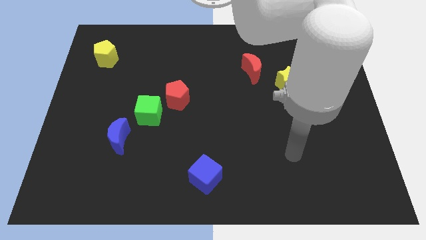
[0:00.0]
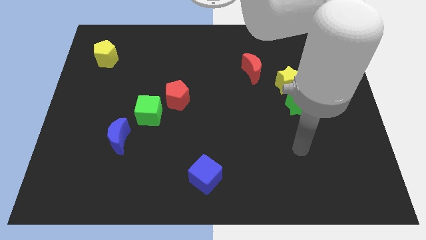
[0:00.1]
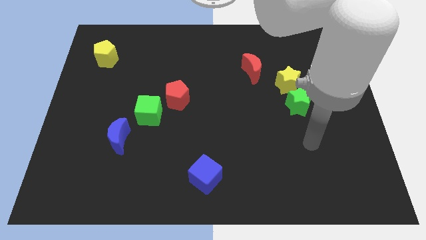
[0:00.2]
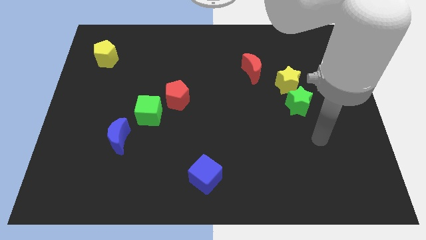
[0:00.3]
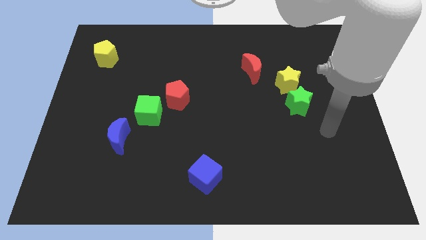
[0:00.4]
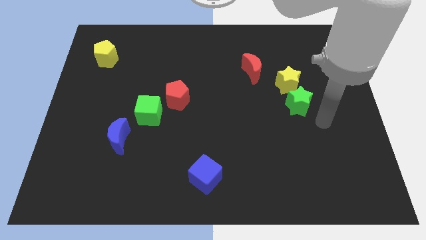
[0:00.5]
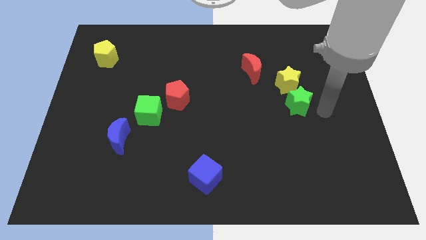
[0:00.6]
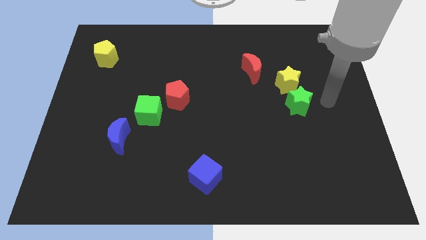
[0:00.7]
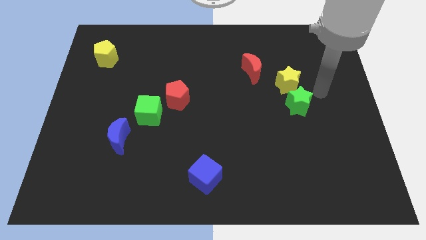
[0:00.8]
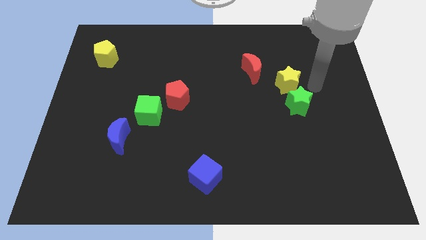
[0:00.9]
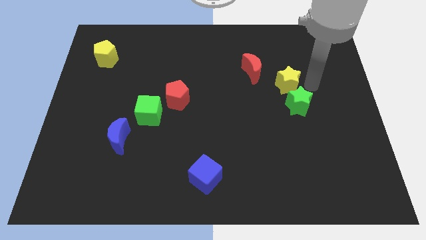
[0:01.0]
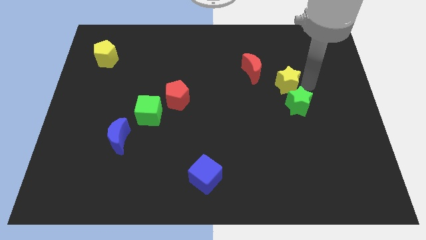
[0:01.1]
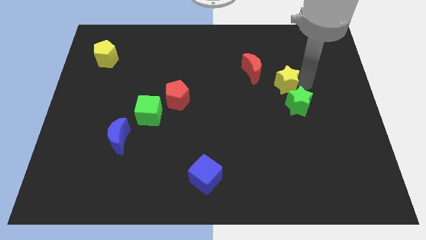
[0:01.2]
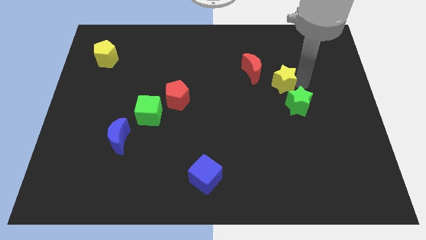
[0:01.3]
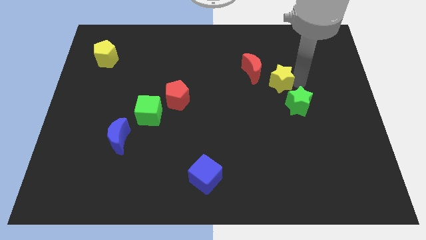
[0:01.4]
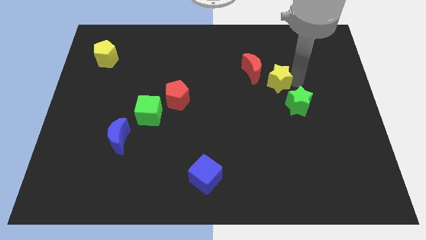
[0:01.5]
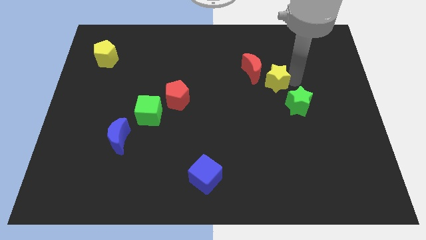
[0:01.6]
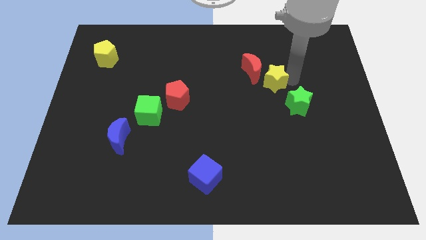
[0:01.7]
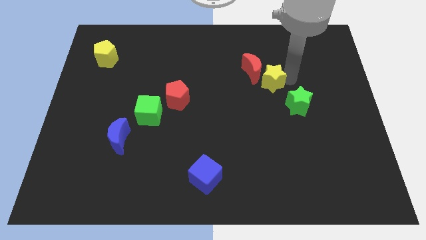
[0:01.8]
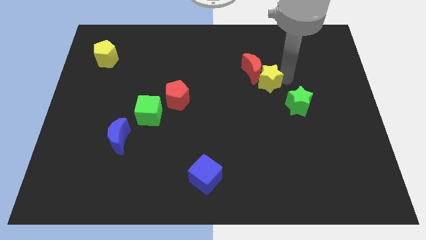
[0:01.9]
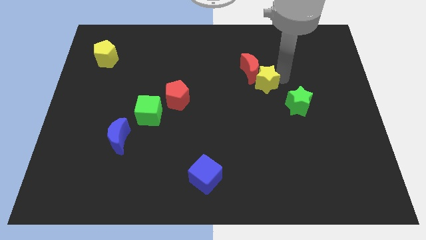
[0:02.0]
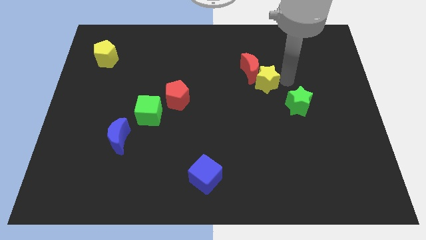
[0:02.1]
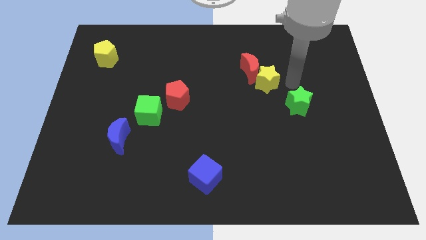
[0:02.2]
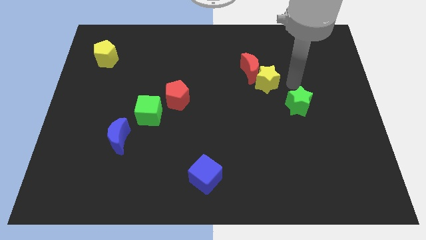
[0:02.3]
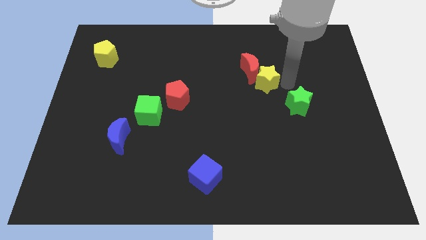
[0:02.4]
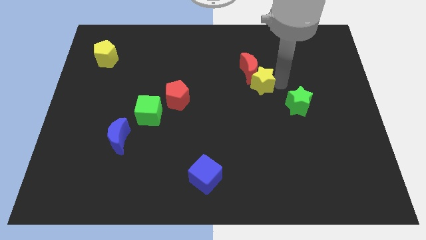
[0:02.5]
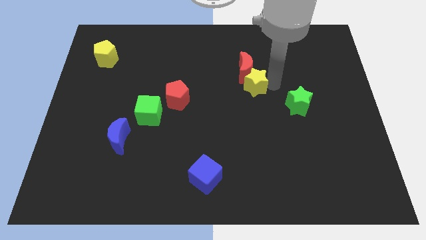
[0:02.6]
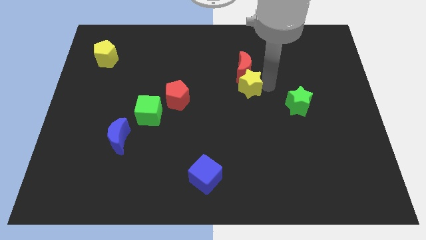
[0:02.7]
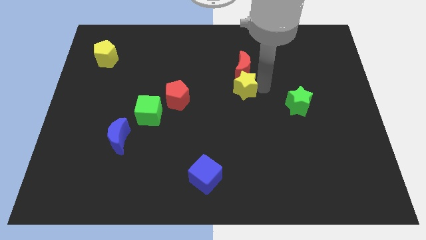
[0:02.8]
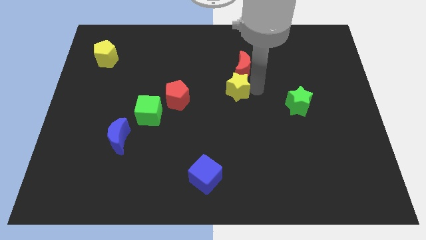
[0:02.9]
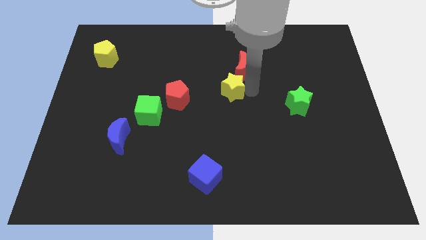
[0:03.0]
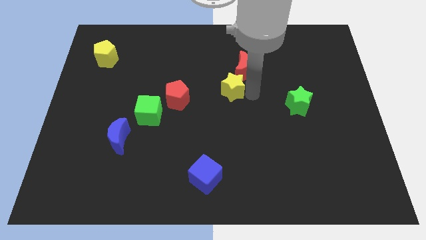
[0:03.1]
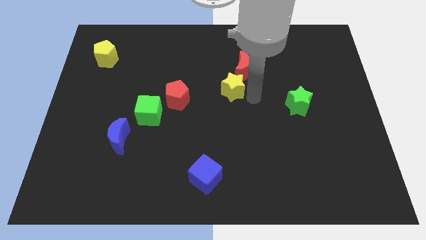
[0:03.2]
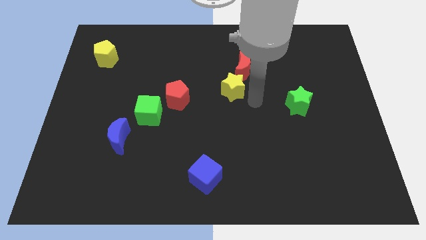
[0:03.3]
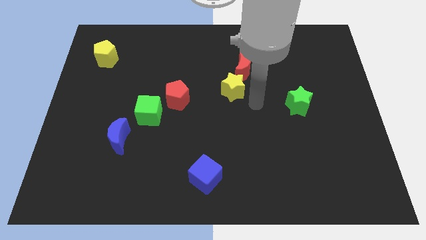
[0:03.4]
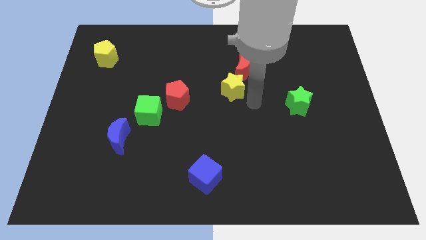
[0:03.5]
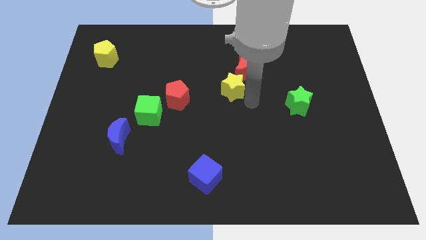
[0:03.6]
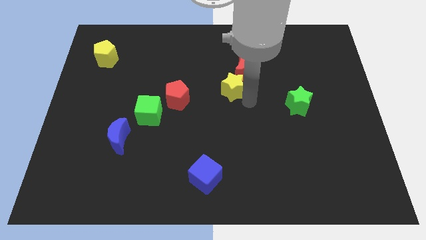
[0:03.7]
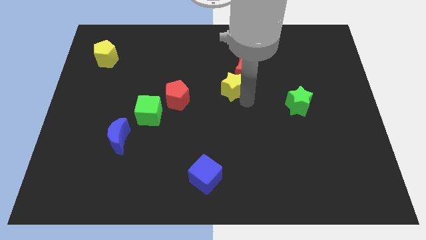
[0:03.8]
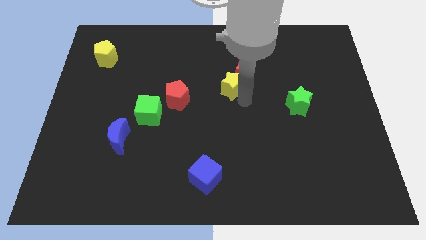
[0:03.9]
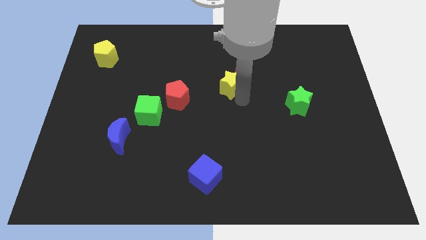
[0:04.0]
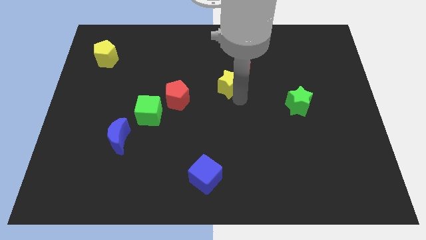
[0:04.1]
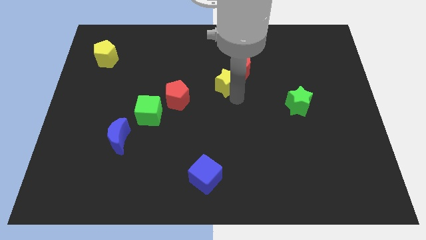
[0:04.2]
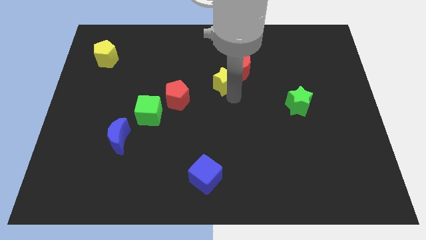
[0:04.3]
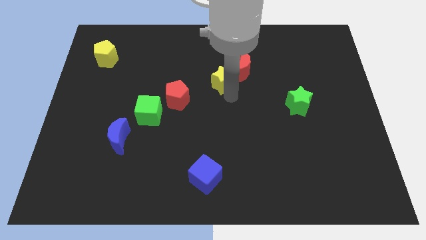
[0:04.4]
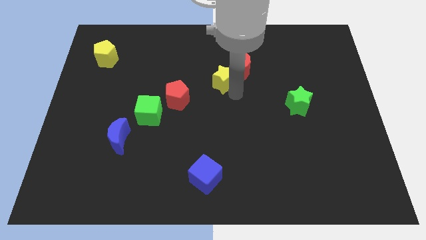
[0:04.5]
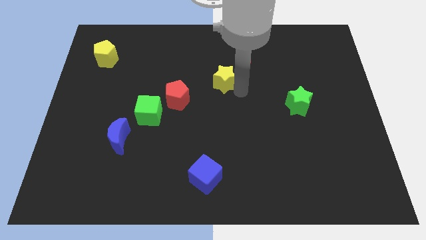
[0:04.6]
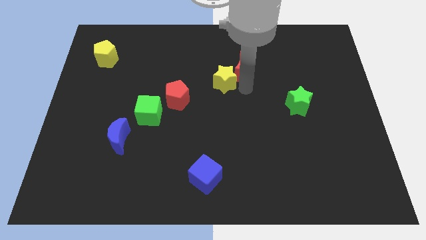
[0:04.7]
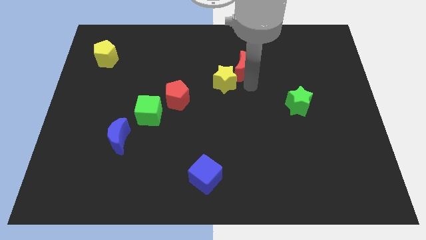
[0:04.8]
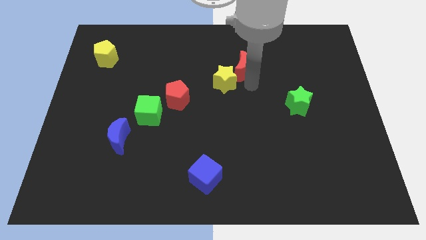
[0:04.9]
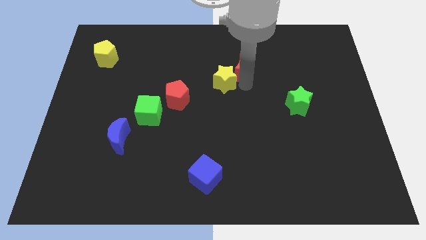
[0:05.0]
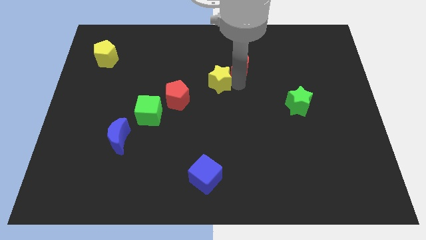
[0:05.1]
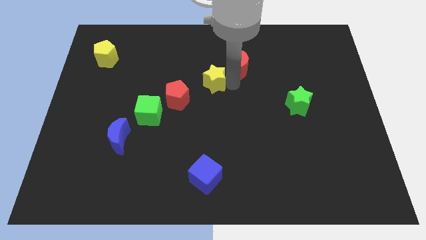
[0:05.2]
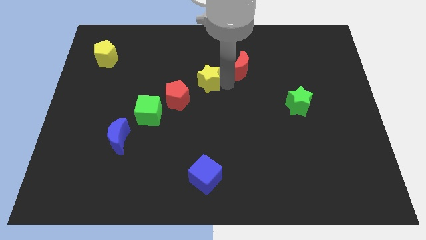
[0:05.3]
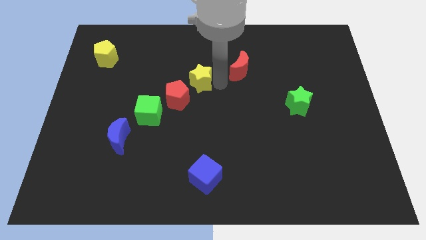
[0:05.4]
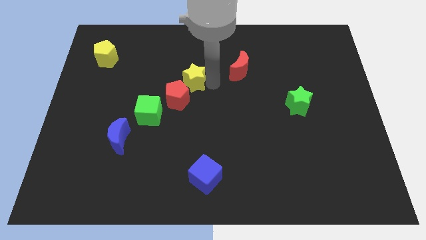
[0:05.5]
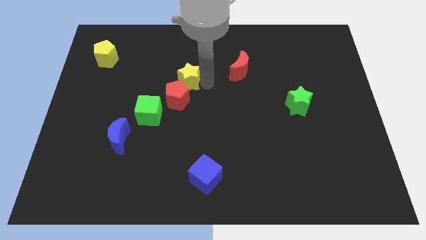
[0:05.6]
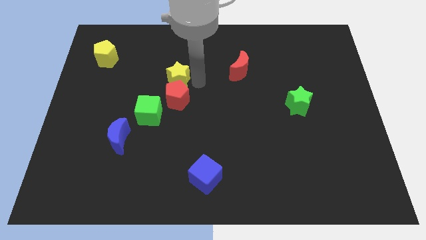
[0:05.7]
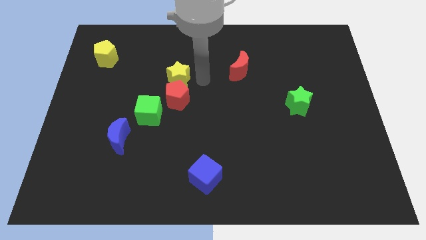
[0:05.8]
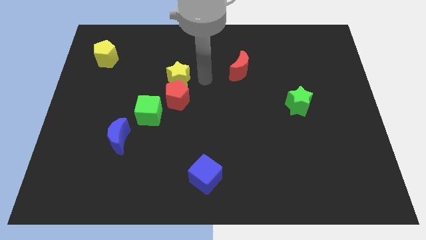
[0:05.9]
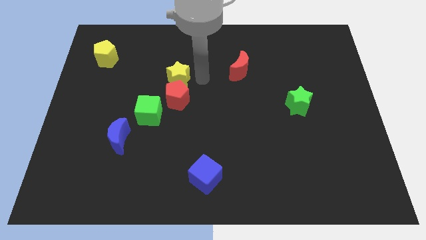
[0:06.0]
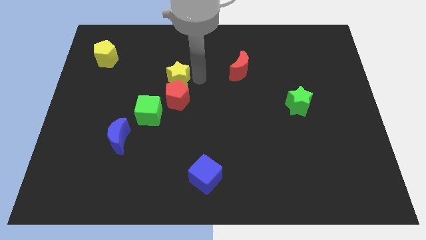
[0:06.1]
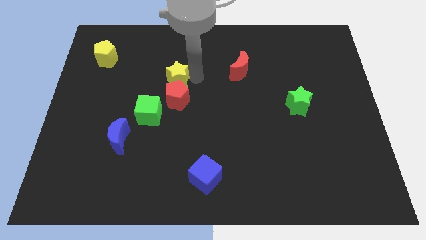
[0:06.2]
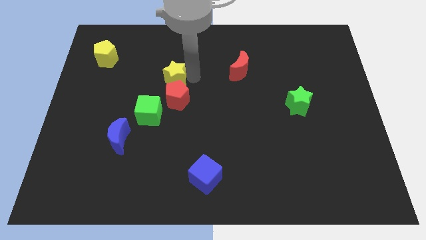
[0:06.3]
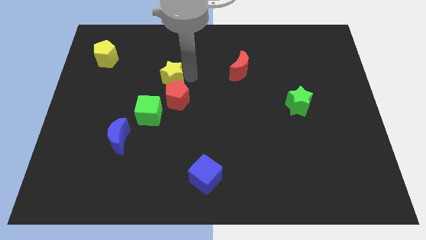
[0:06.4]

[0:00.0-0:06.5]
slide the yellow star to the top of the green cube
